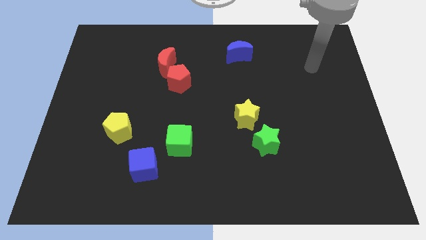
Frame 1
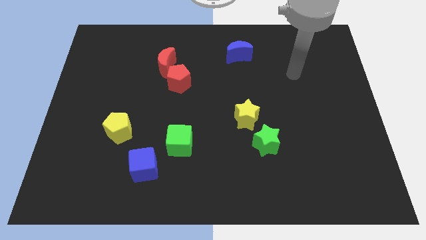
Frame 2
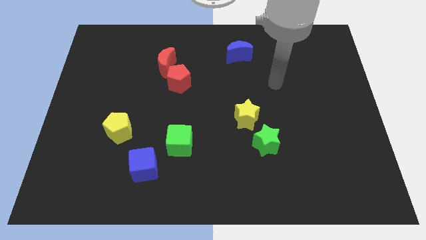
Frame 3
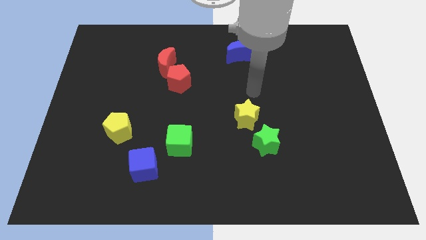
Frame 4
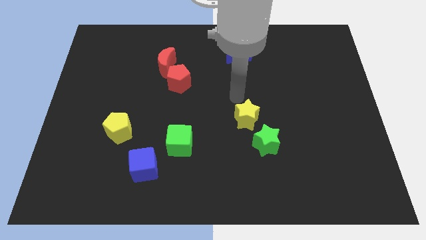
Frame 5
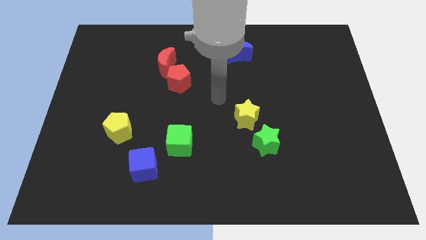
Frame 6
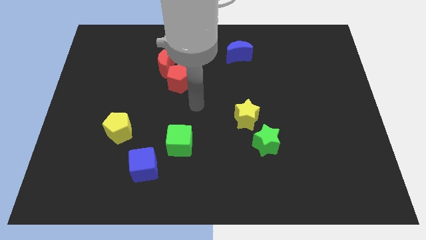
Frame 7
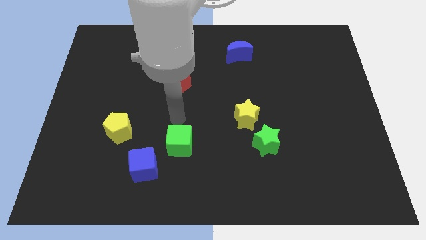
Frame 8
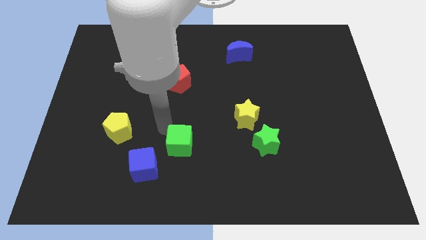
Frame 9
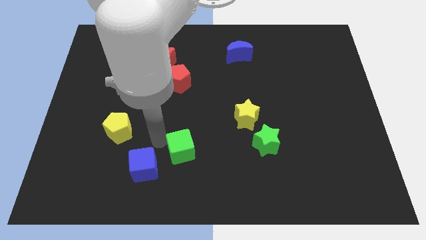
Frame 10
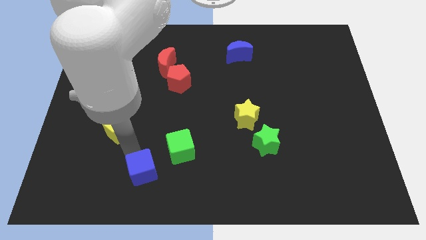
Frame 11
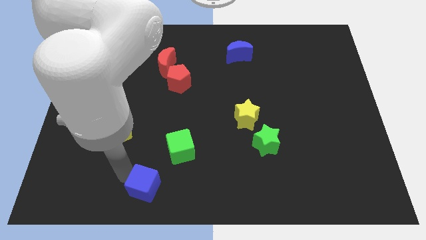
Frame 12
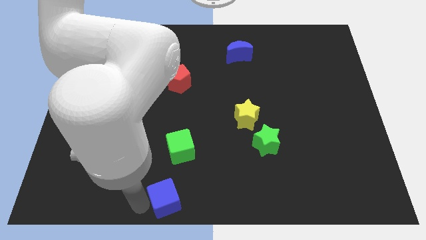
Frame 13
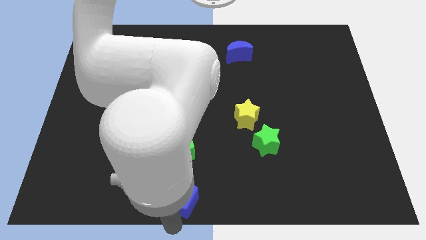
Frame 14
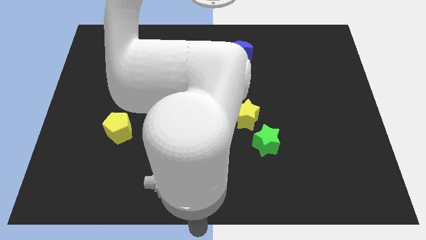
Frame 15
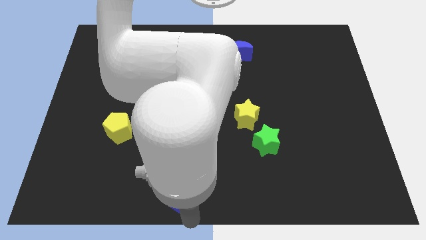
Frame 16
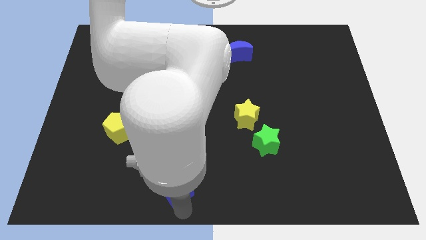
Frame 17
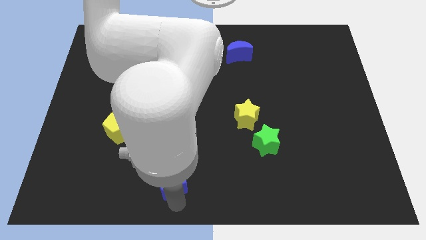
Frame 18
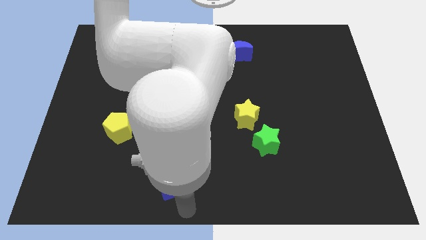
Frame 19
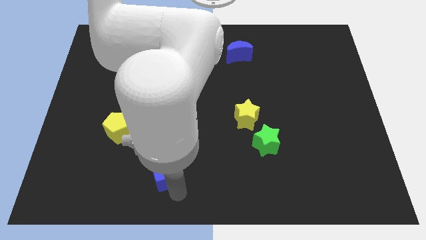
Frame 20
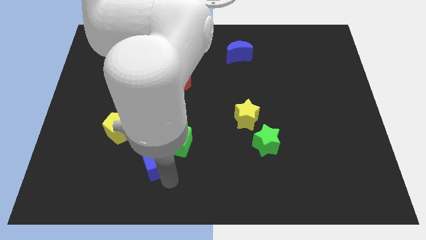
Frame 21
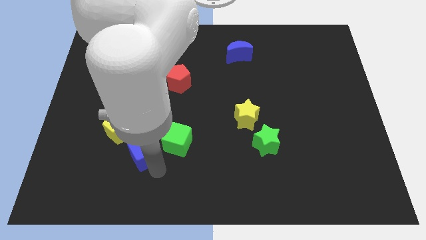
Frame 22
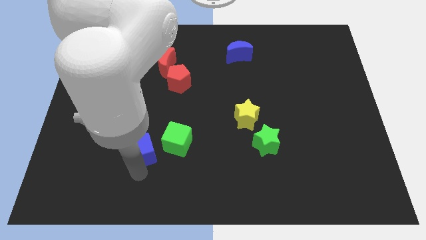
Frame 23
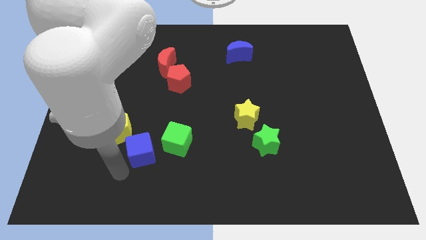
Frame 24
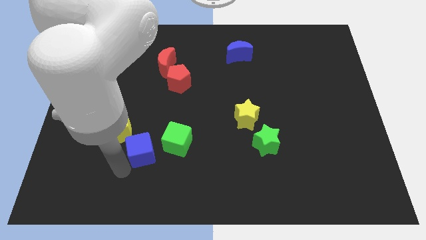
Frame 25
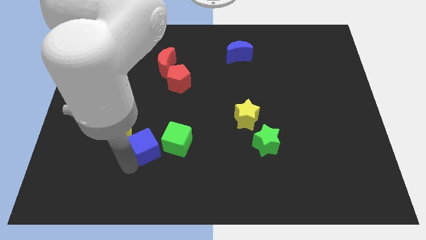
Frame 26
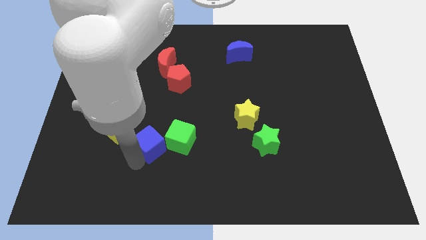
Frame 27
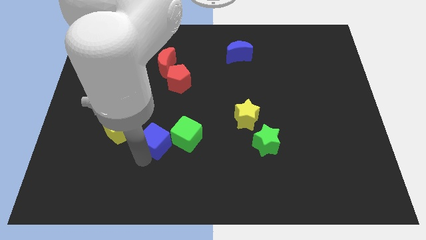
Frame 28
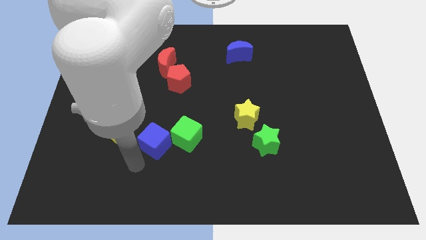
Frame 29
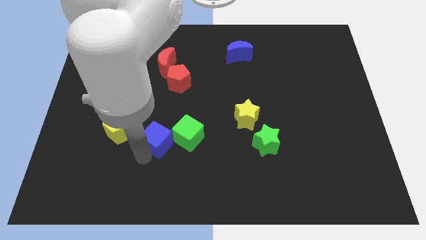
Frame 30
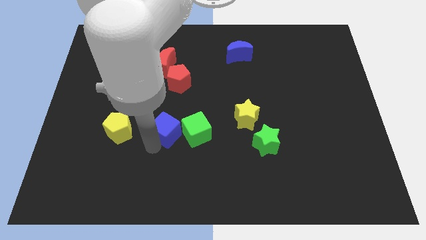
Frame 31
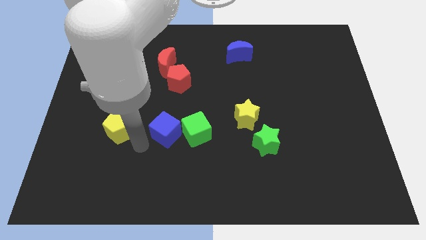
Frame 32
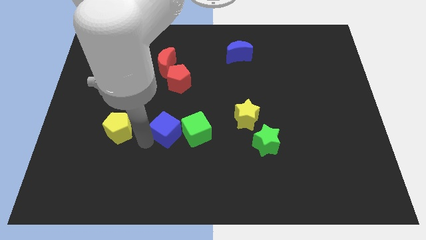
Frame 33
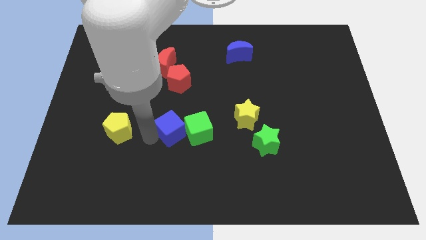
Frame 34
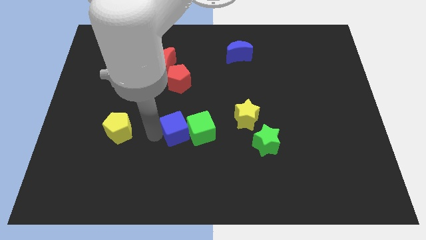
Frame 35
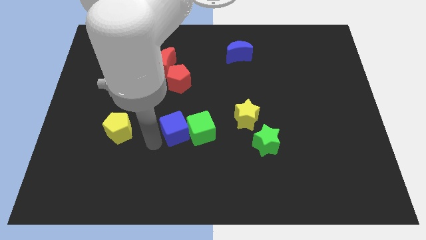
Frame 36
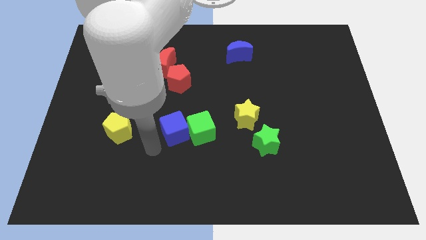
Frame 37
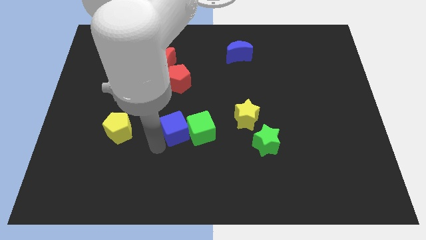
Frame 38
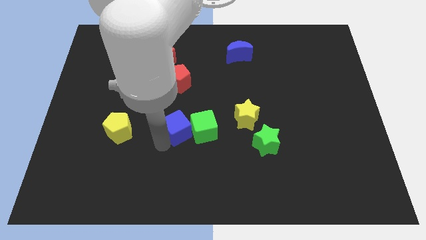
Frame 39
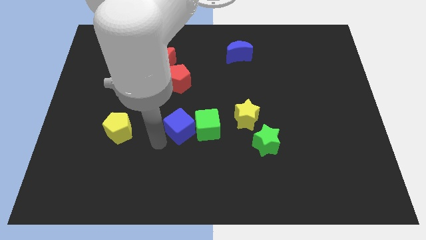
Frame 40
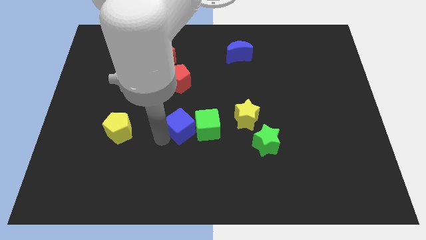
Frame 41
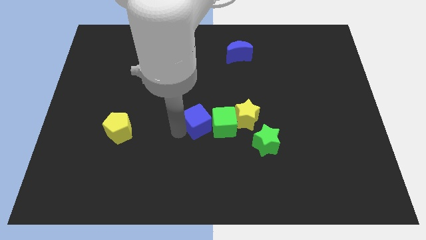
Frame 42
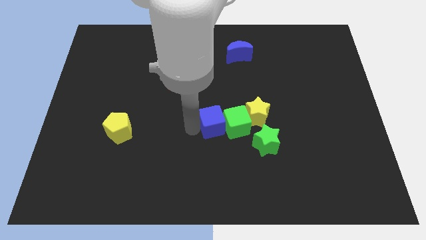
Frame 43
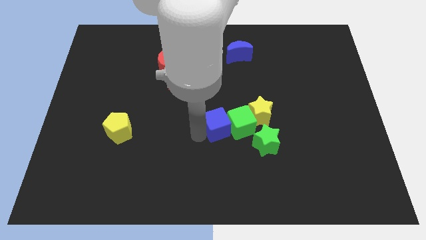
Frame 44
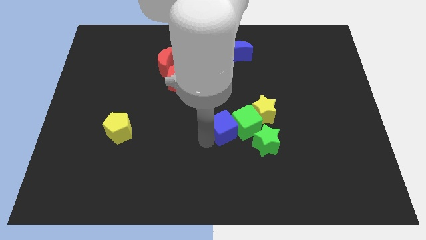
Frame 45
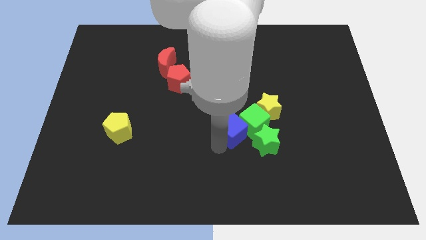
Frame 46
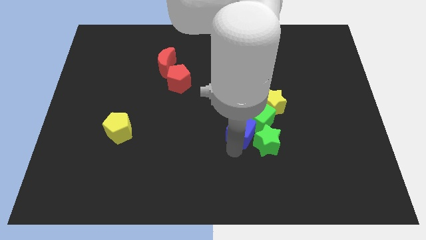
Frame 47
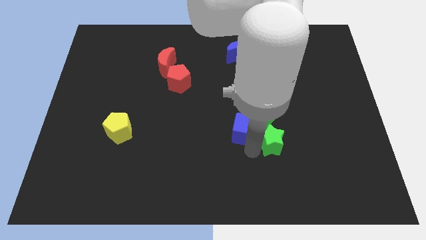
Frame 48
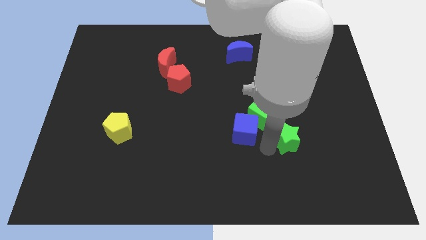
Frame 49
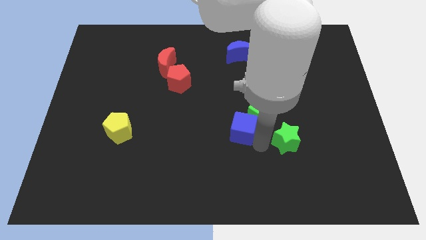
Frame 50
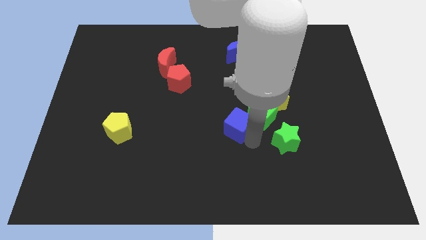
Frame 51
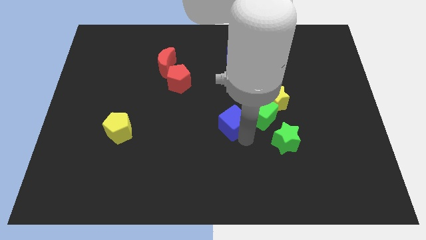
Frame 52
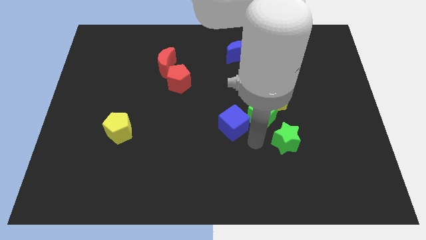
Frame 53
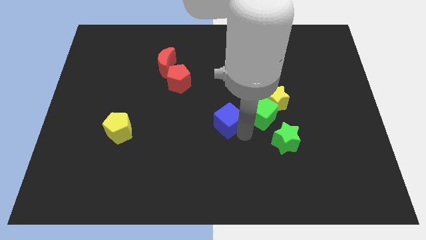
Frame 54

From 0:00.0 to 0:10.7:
push the blue cube upwards and right diagonally

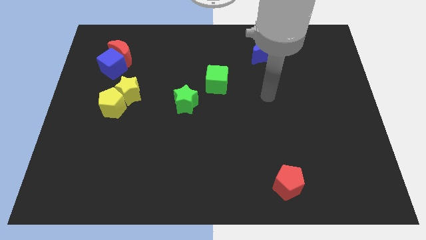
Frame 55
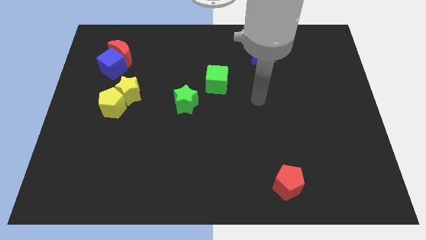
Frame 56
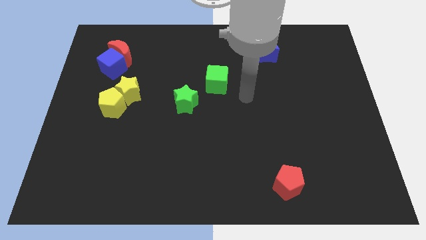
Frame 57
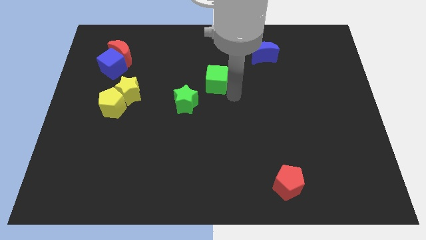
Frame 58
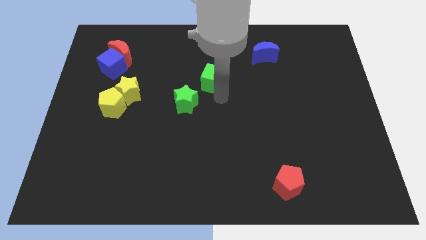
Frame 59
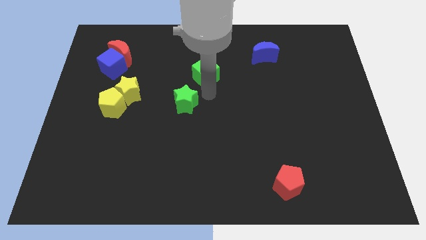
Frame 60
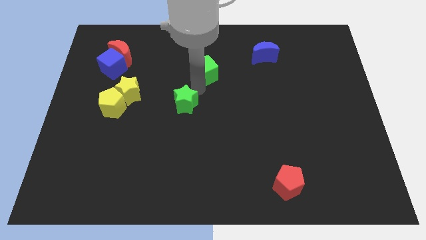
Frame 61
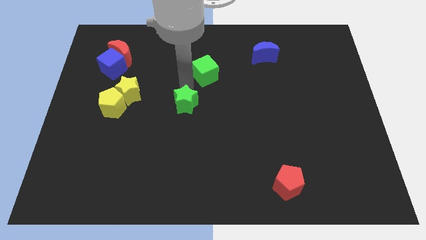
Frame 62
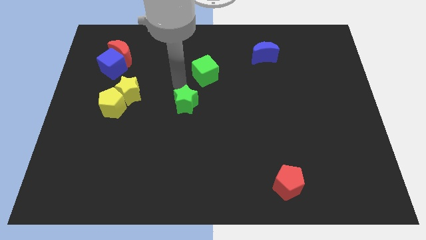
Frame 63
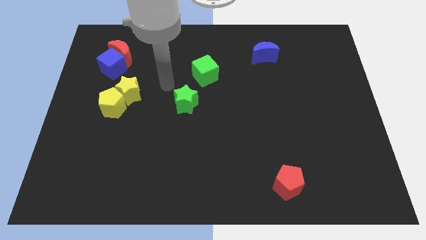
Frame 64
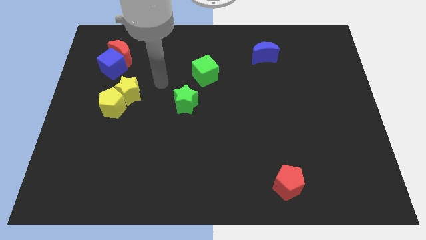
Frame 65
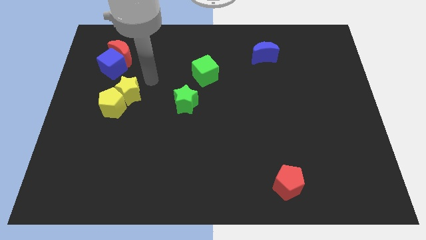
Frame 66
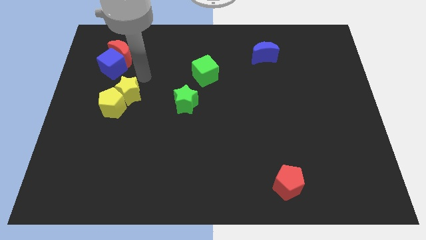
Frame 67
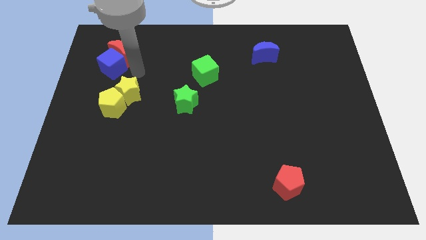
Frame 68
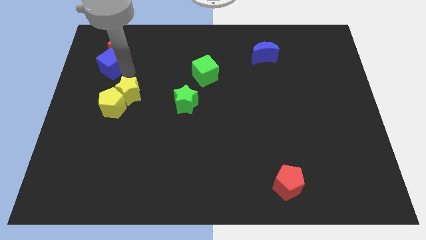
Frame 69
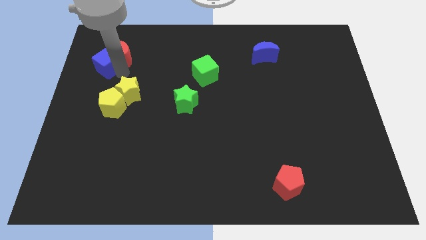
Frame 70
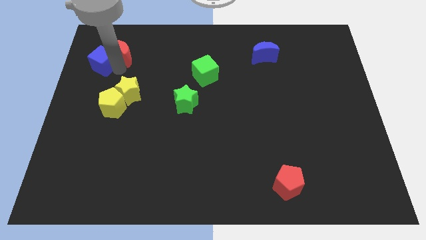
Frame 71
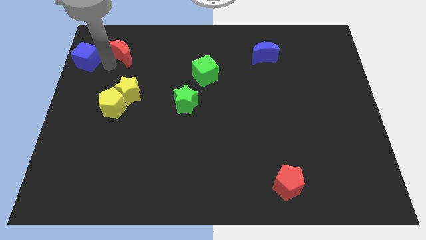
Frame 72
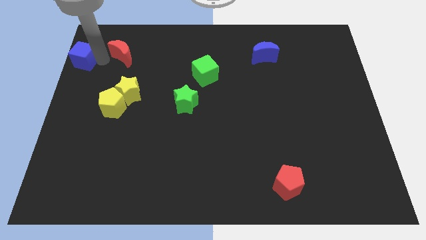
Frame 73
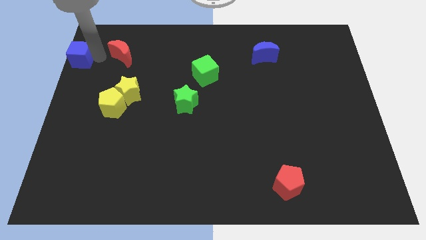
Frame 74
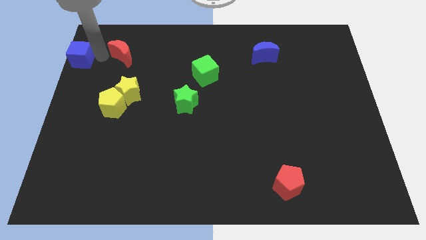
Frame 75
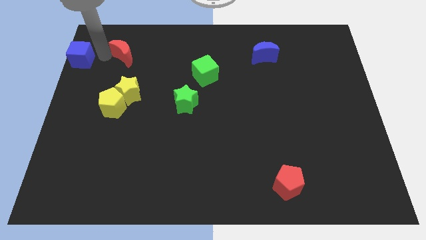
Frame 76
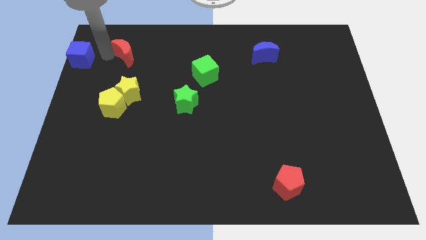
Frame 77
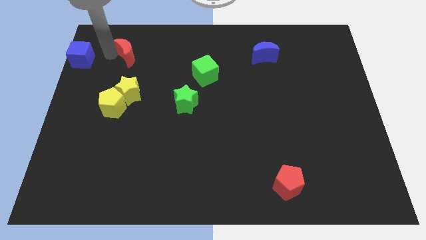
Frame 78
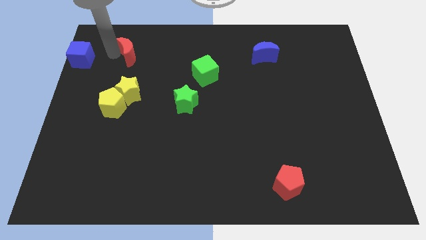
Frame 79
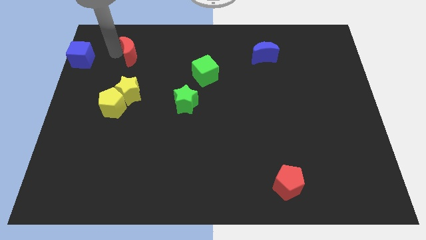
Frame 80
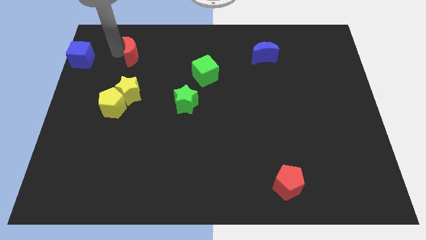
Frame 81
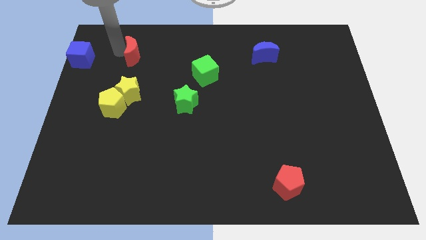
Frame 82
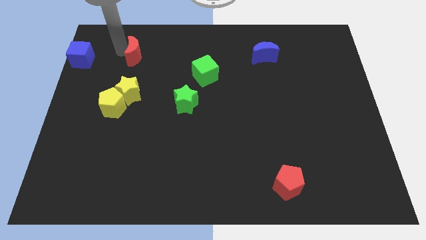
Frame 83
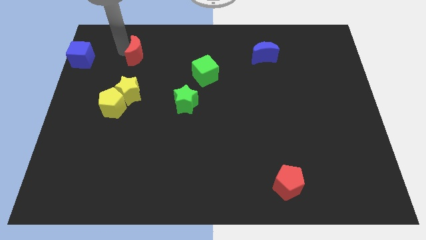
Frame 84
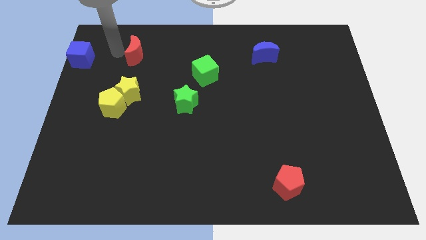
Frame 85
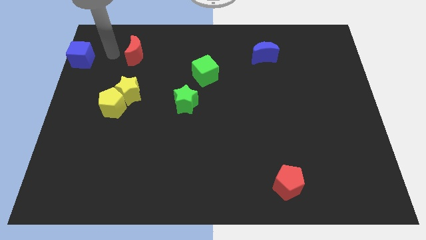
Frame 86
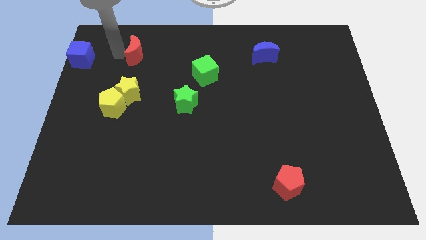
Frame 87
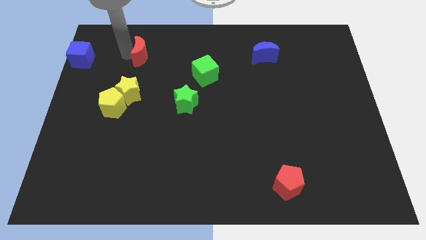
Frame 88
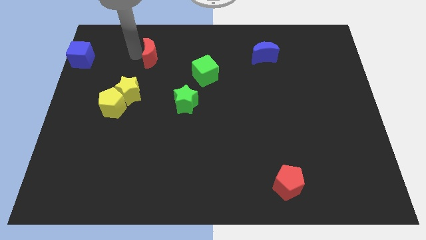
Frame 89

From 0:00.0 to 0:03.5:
push the red moon a little bit right
